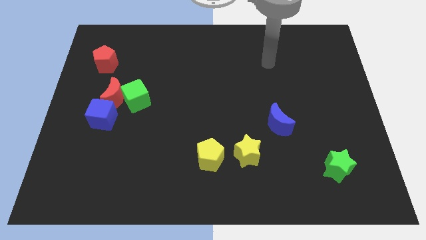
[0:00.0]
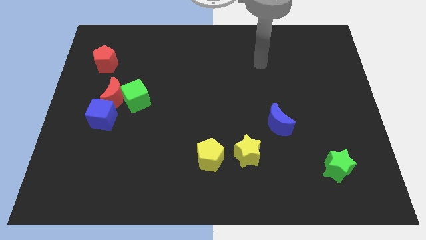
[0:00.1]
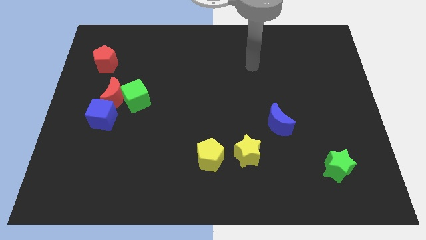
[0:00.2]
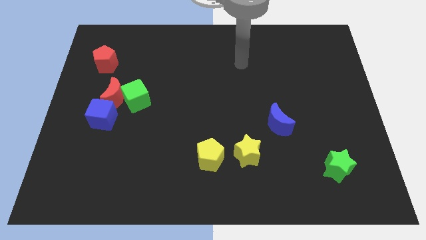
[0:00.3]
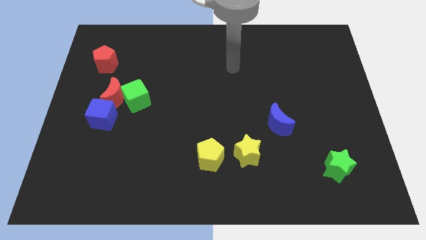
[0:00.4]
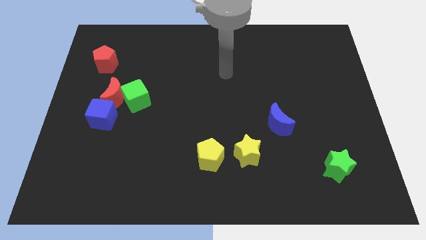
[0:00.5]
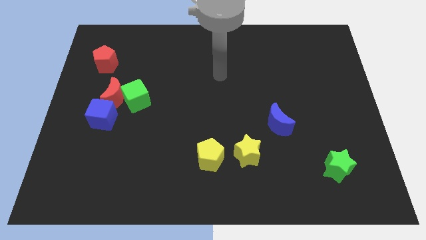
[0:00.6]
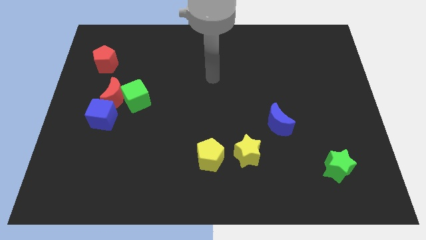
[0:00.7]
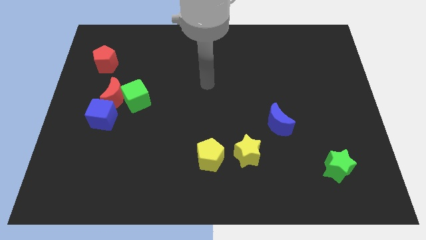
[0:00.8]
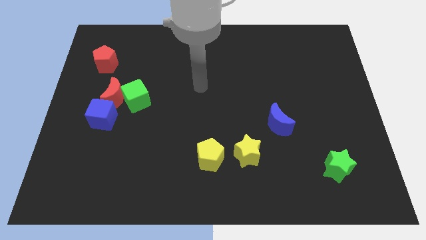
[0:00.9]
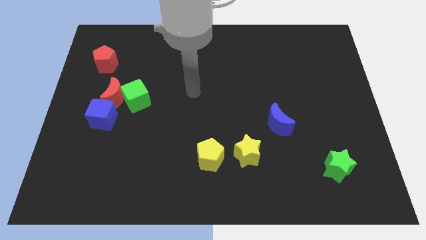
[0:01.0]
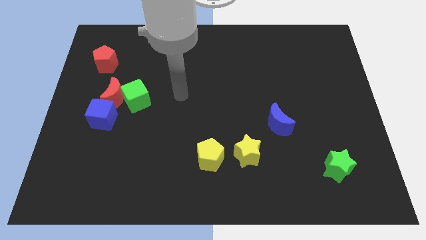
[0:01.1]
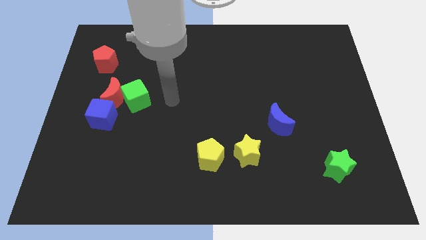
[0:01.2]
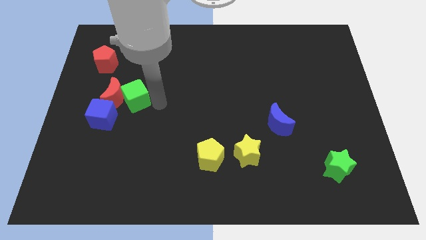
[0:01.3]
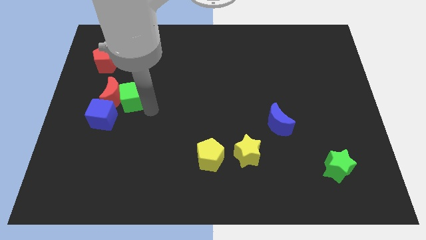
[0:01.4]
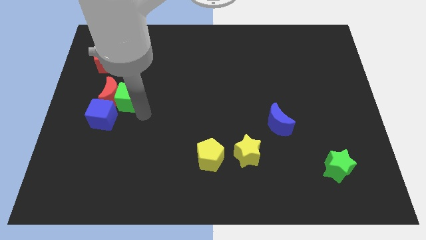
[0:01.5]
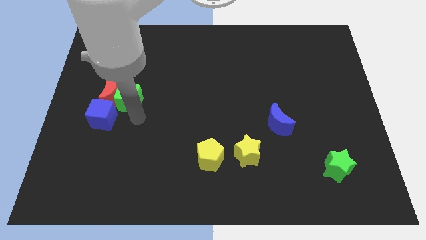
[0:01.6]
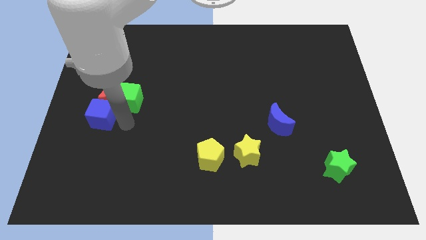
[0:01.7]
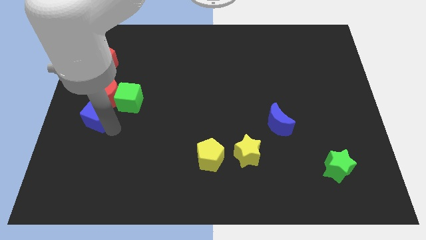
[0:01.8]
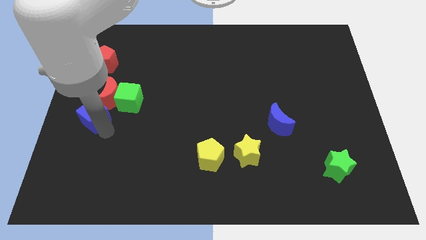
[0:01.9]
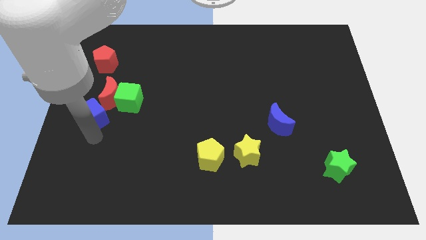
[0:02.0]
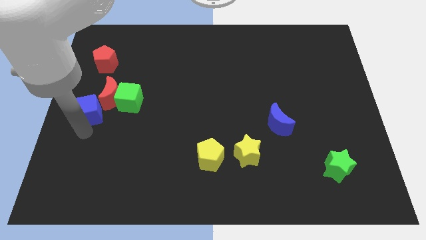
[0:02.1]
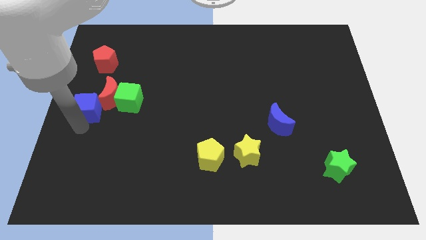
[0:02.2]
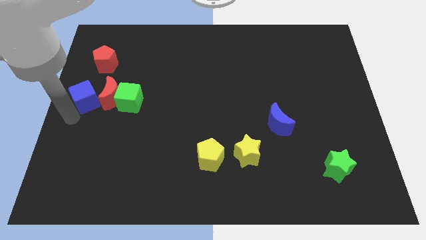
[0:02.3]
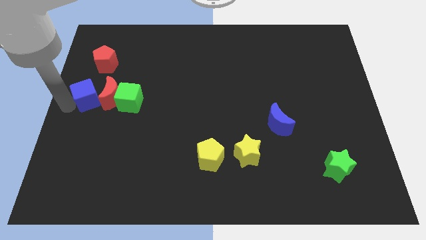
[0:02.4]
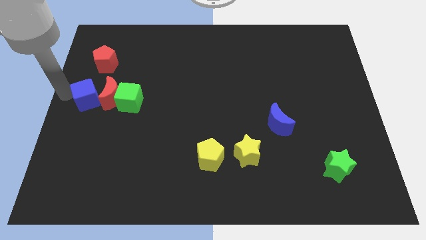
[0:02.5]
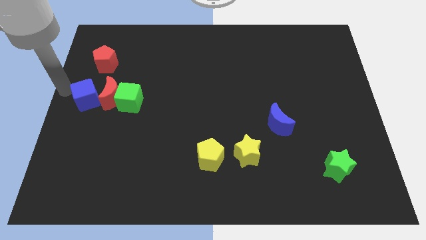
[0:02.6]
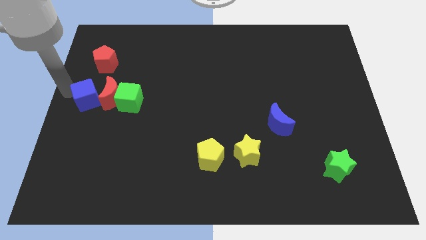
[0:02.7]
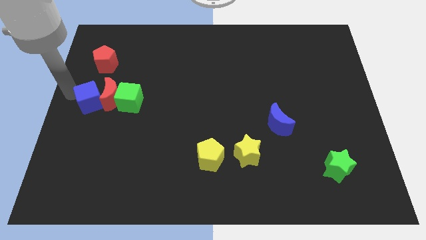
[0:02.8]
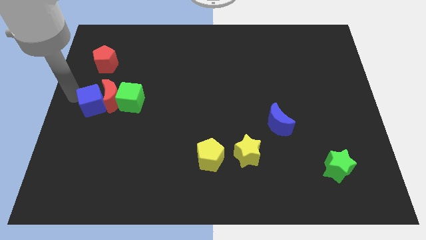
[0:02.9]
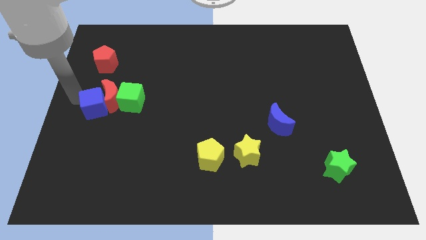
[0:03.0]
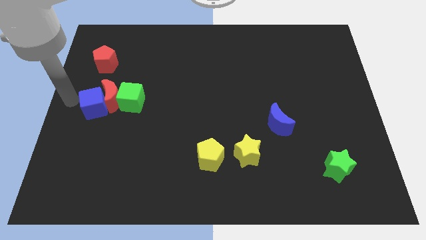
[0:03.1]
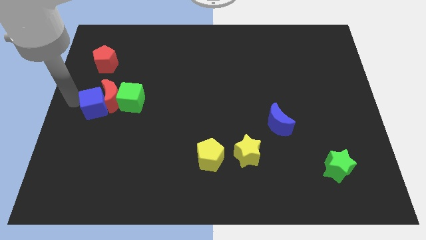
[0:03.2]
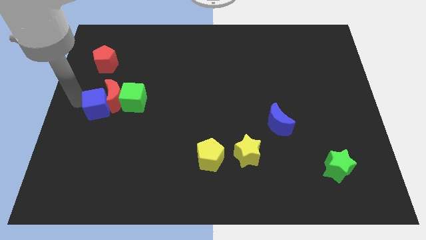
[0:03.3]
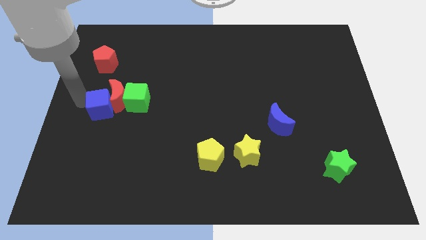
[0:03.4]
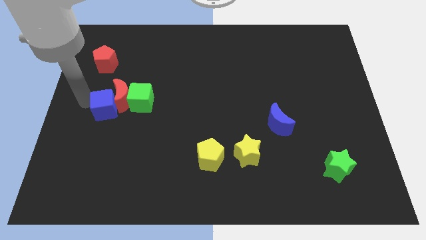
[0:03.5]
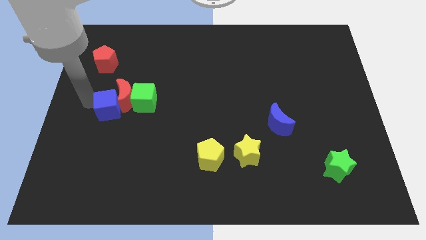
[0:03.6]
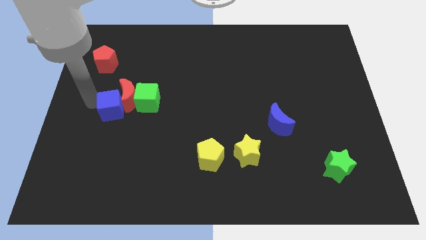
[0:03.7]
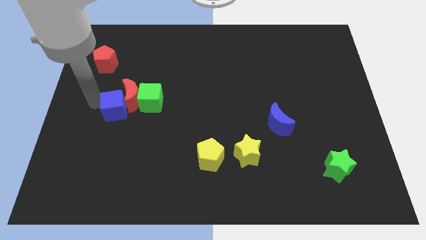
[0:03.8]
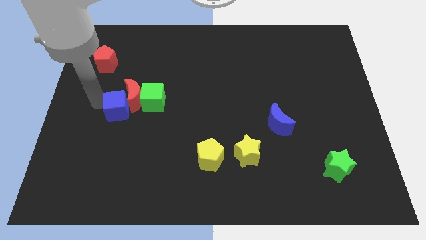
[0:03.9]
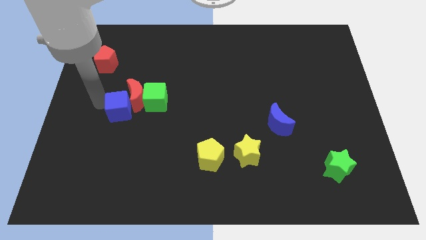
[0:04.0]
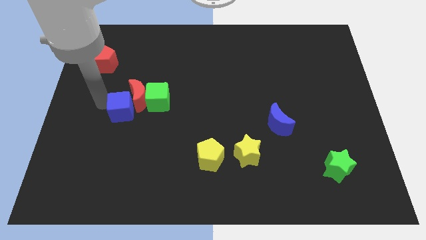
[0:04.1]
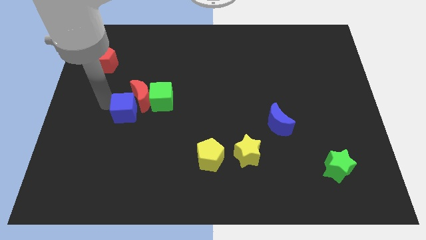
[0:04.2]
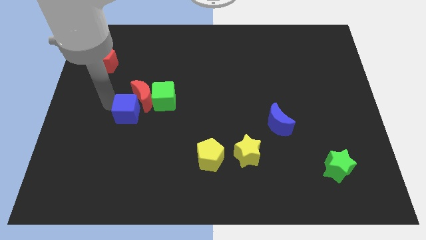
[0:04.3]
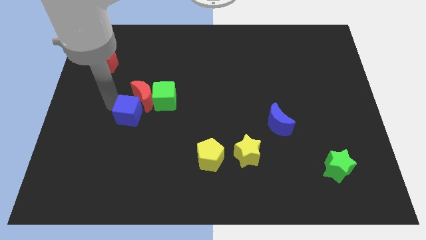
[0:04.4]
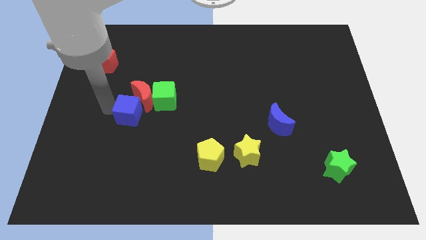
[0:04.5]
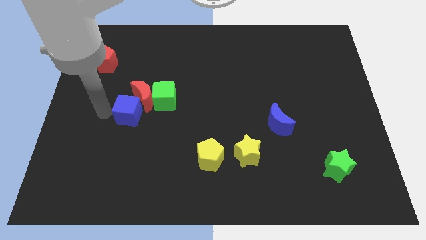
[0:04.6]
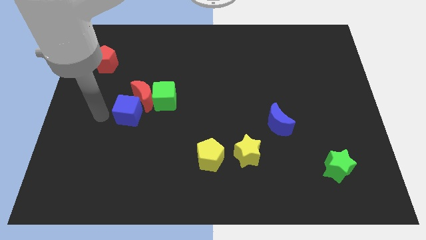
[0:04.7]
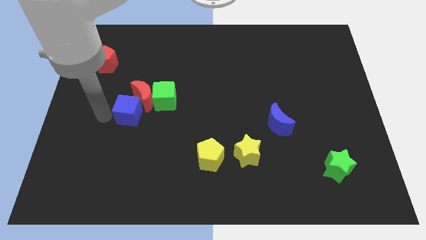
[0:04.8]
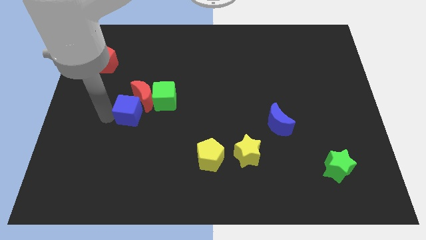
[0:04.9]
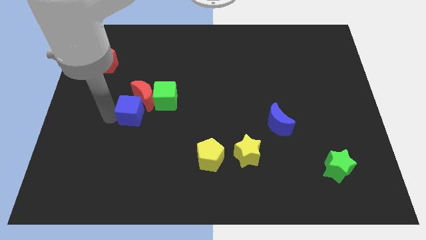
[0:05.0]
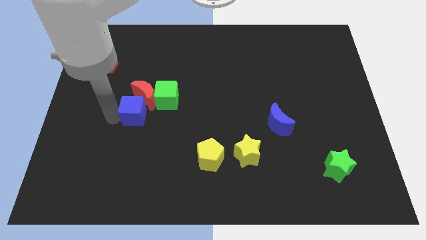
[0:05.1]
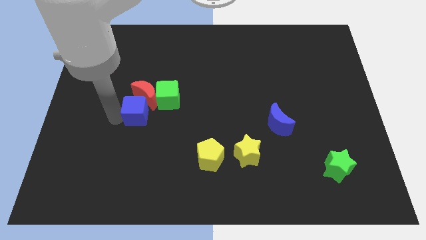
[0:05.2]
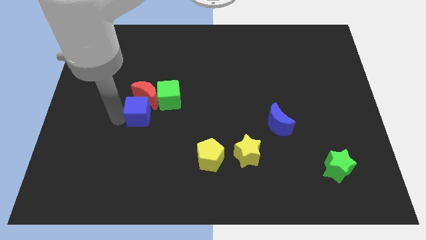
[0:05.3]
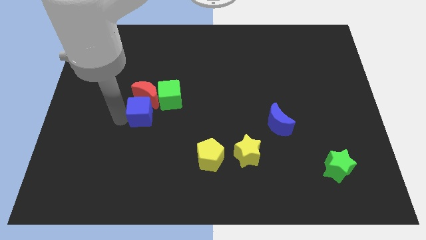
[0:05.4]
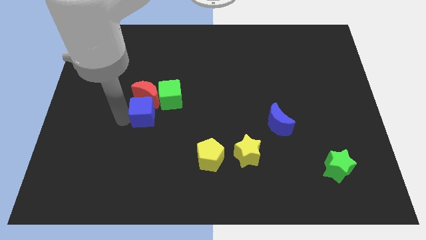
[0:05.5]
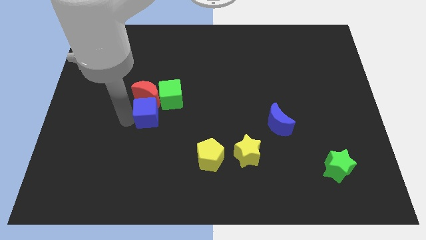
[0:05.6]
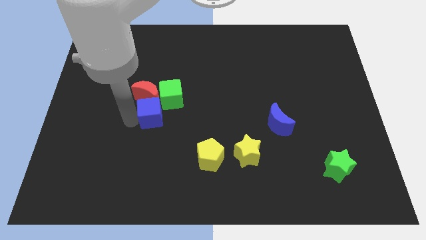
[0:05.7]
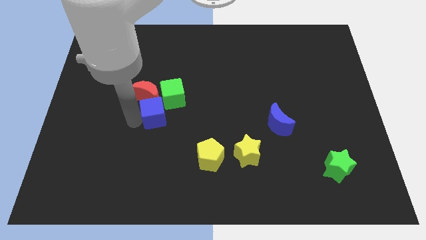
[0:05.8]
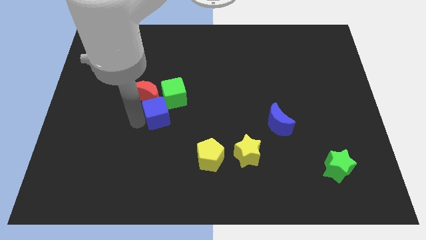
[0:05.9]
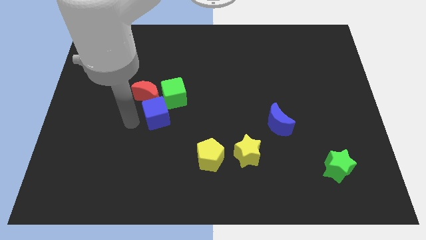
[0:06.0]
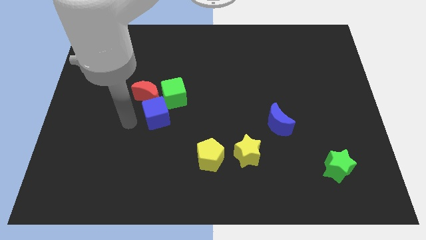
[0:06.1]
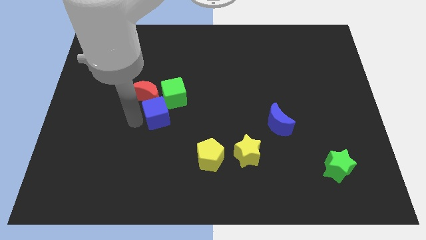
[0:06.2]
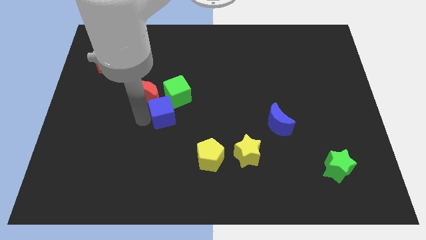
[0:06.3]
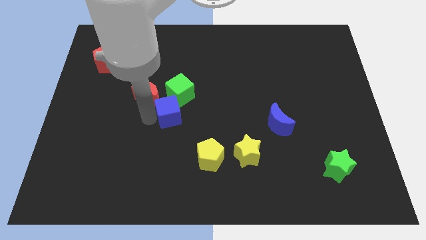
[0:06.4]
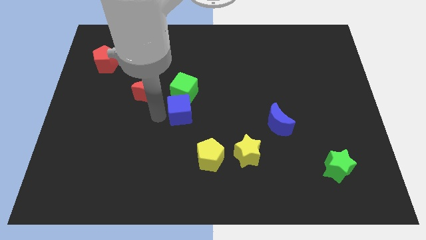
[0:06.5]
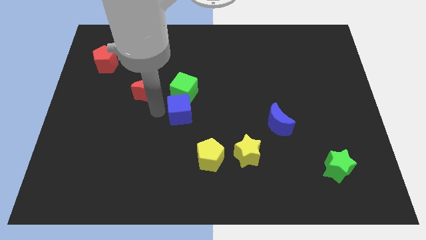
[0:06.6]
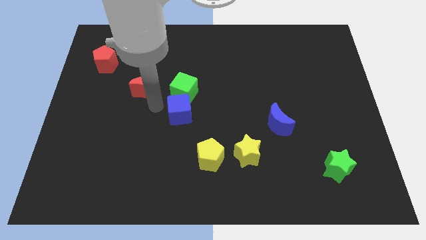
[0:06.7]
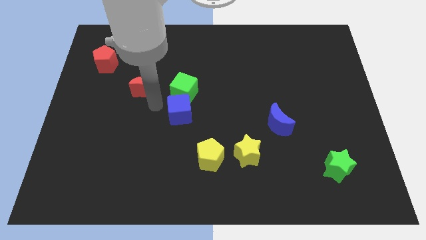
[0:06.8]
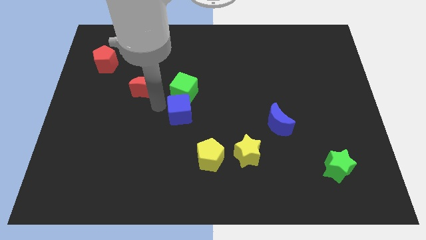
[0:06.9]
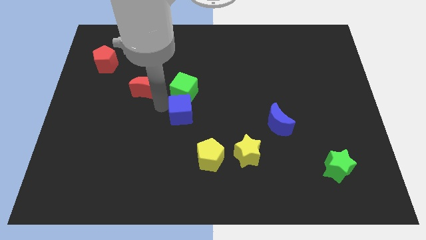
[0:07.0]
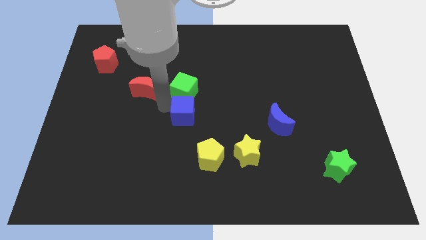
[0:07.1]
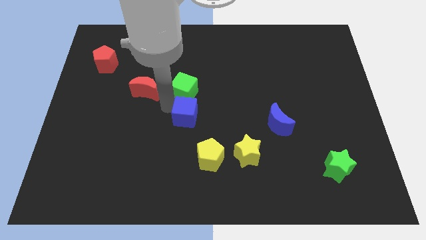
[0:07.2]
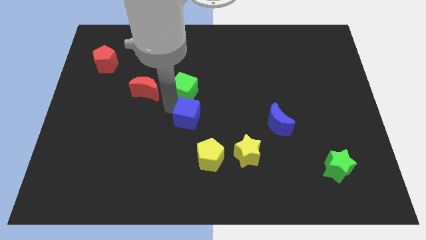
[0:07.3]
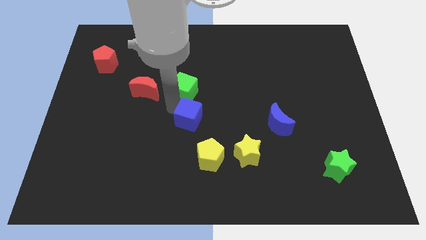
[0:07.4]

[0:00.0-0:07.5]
move the blue cube right
